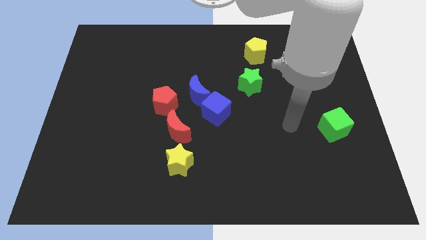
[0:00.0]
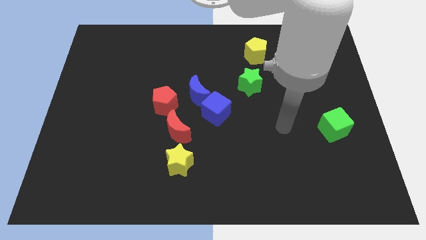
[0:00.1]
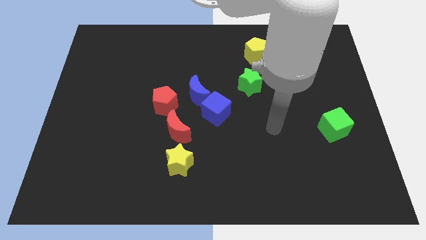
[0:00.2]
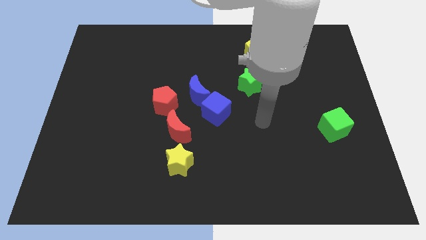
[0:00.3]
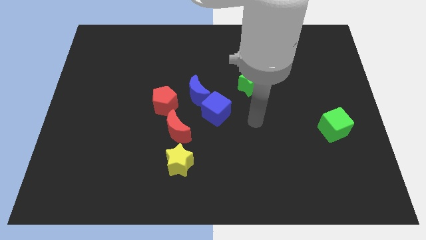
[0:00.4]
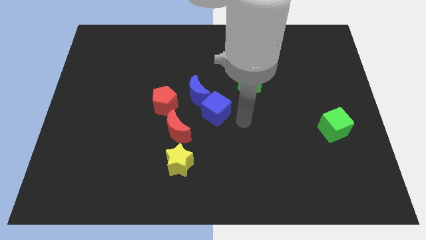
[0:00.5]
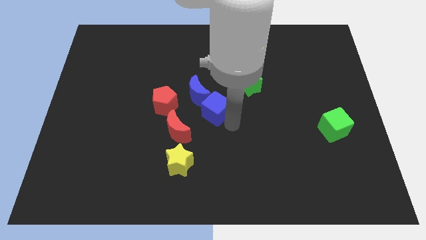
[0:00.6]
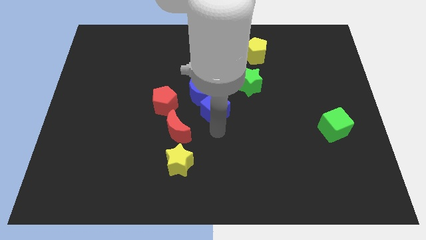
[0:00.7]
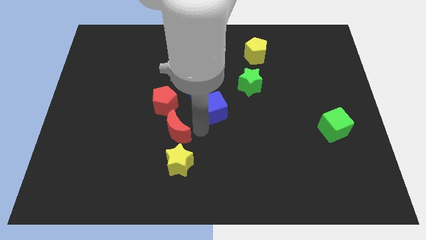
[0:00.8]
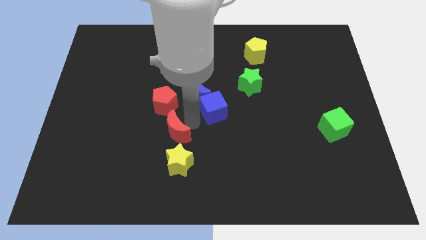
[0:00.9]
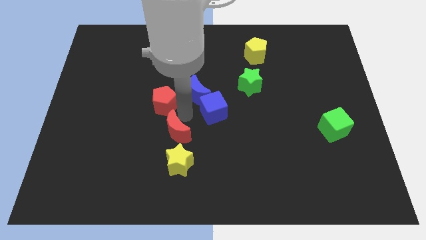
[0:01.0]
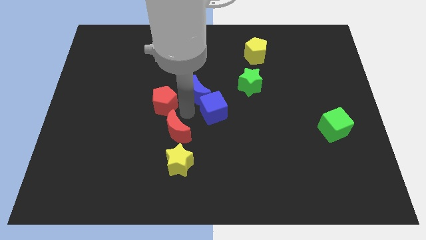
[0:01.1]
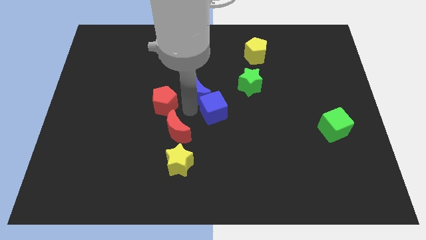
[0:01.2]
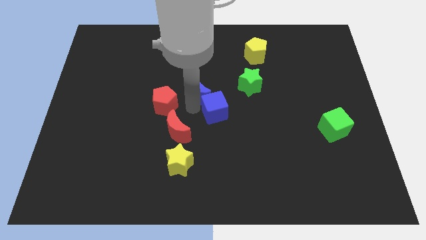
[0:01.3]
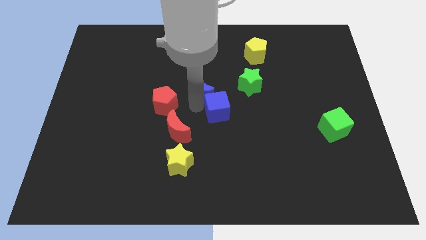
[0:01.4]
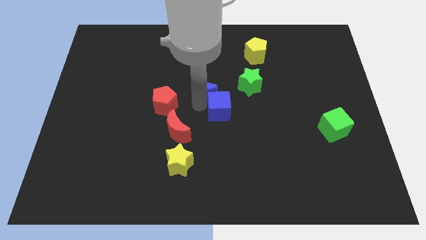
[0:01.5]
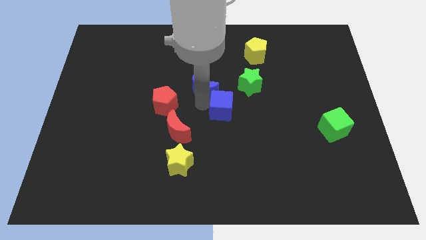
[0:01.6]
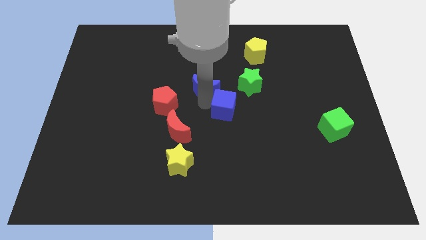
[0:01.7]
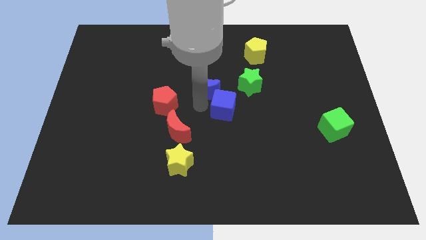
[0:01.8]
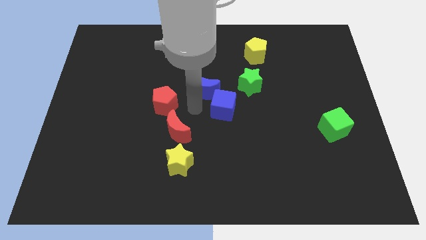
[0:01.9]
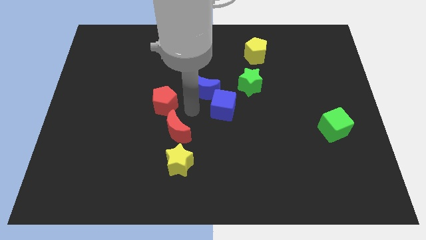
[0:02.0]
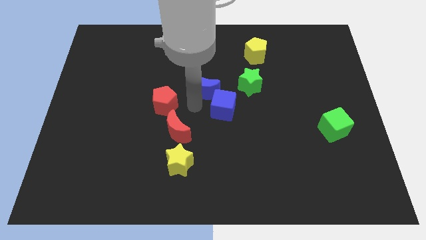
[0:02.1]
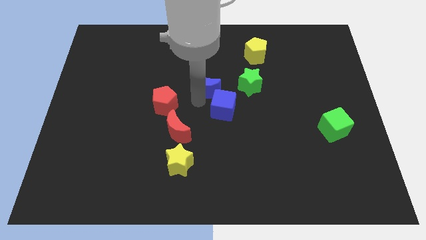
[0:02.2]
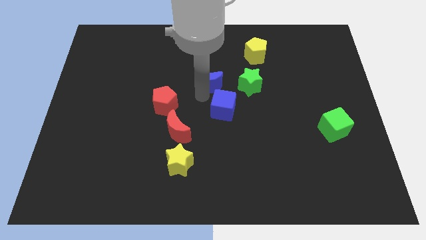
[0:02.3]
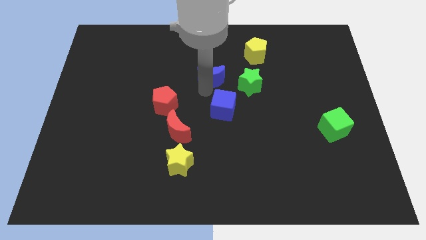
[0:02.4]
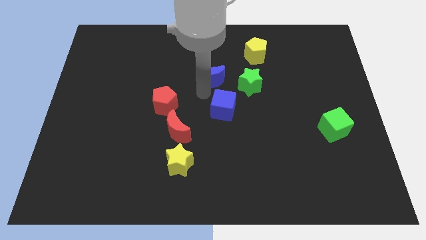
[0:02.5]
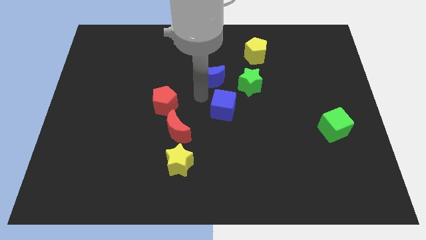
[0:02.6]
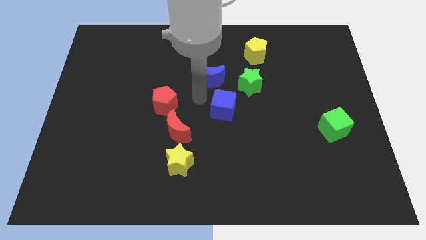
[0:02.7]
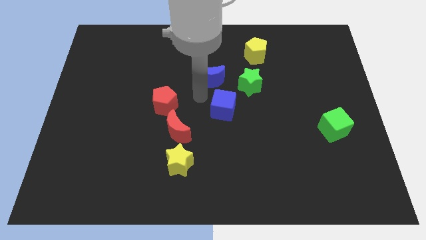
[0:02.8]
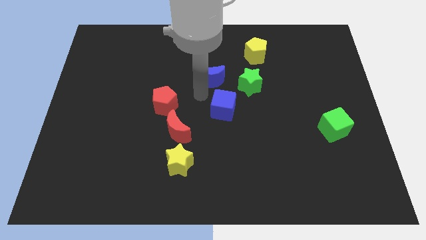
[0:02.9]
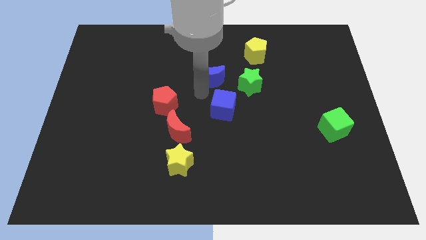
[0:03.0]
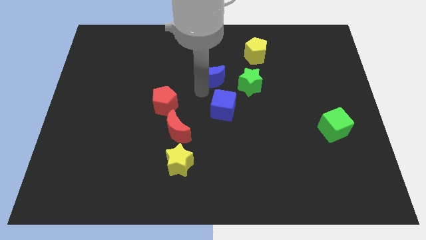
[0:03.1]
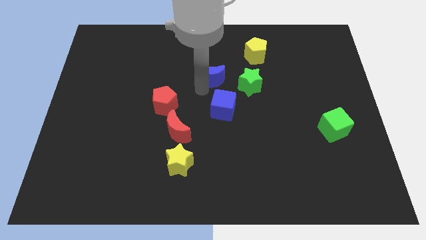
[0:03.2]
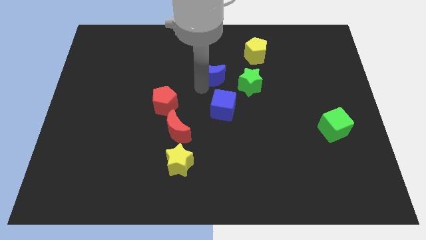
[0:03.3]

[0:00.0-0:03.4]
separate the blue moon from the blue cube and red pentagon

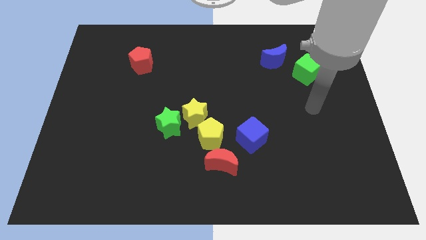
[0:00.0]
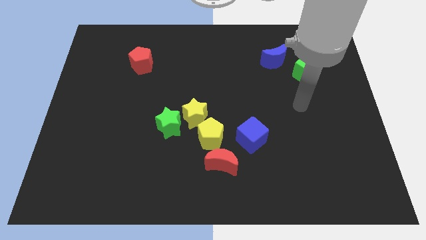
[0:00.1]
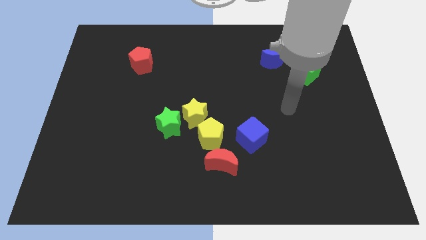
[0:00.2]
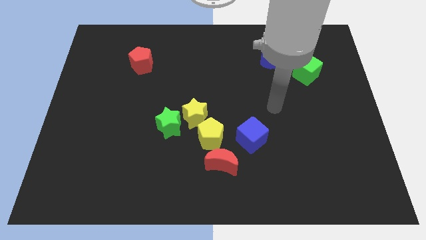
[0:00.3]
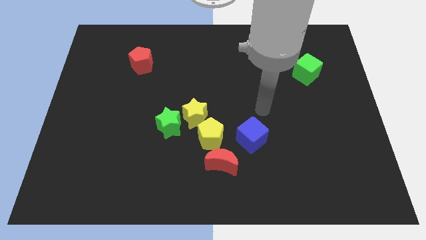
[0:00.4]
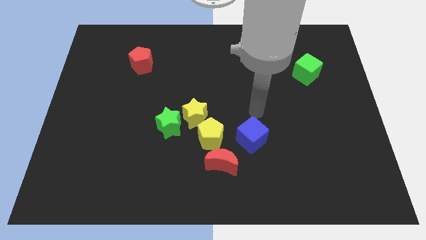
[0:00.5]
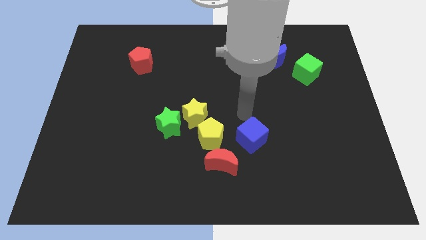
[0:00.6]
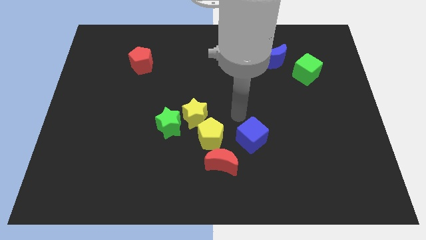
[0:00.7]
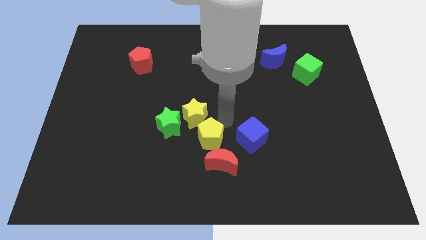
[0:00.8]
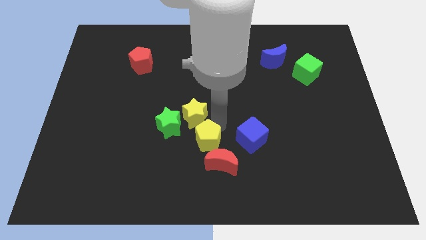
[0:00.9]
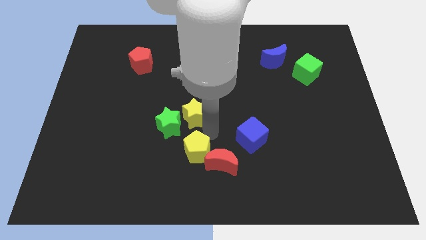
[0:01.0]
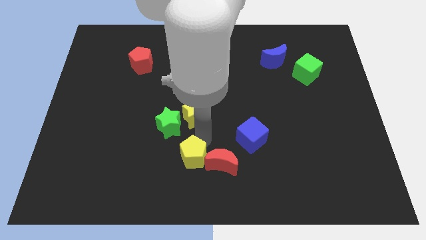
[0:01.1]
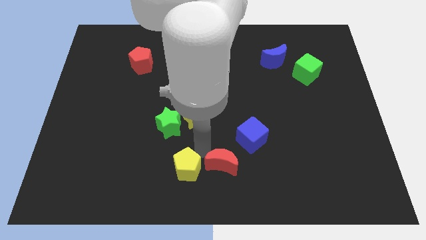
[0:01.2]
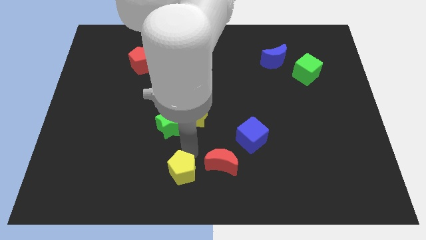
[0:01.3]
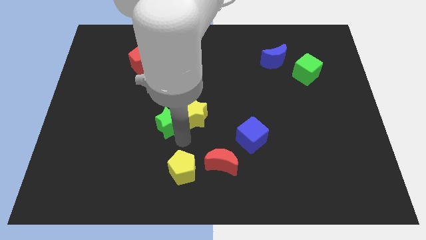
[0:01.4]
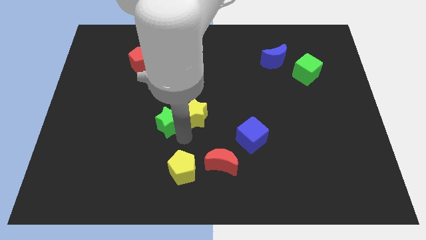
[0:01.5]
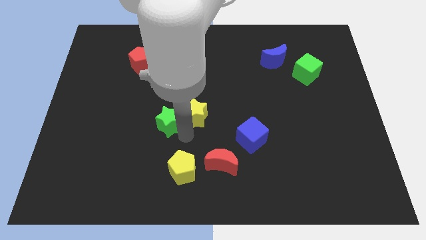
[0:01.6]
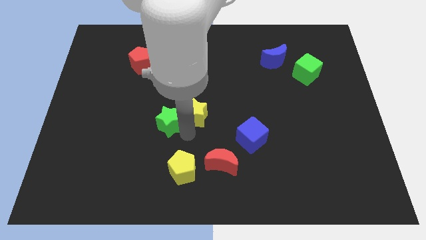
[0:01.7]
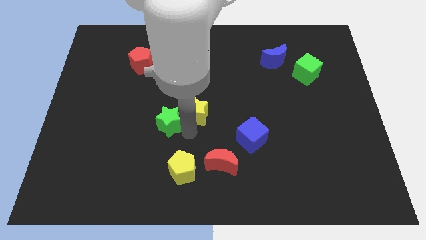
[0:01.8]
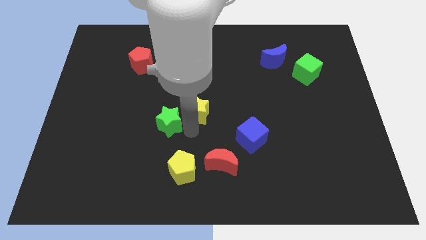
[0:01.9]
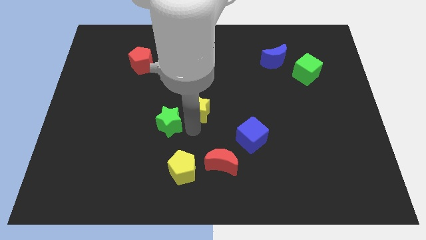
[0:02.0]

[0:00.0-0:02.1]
separate the yellow star from the green star and yellow pentagon

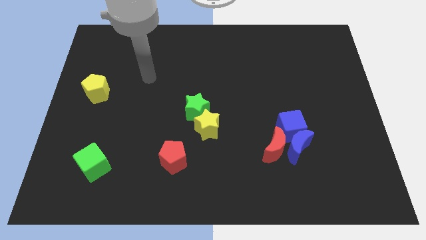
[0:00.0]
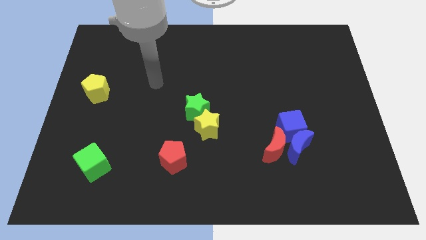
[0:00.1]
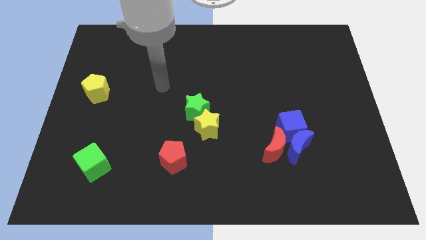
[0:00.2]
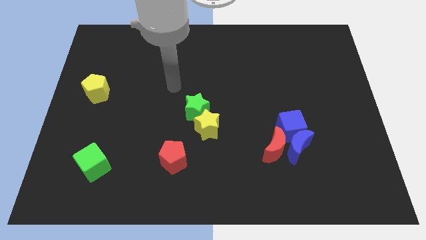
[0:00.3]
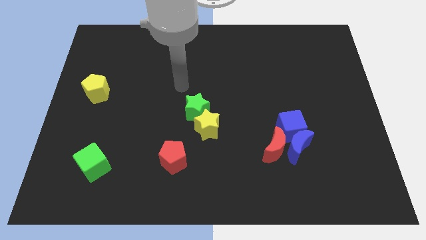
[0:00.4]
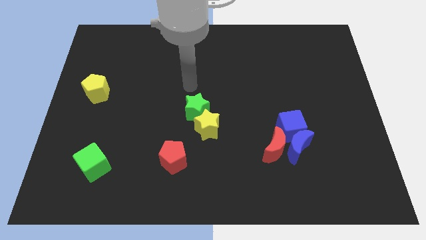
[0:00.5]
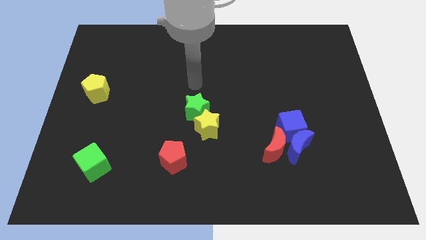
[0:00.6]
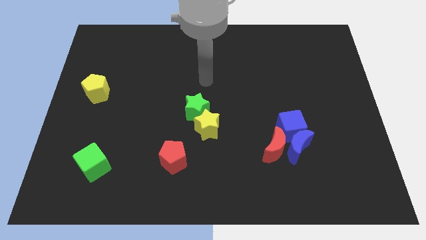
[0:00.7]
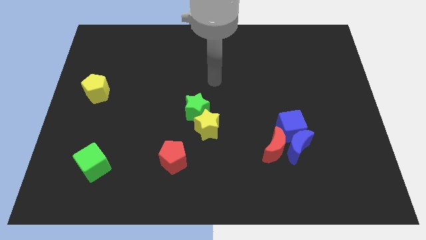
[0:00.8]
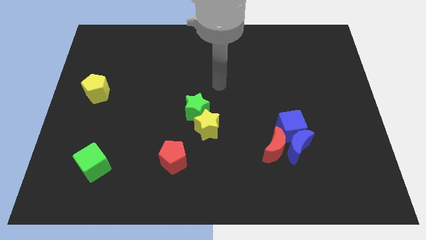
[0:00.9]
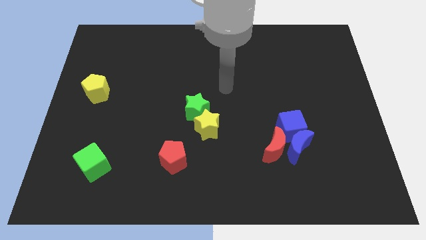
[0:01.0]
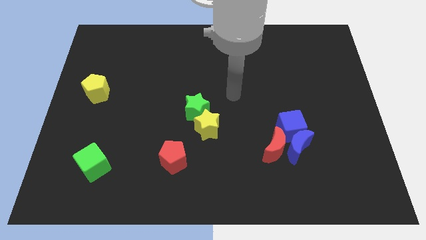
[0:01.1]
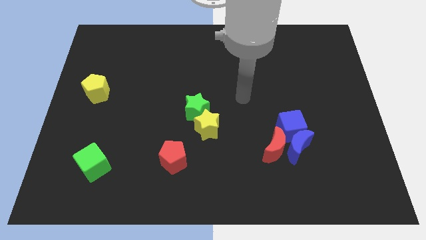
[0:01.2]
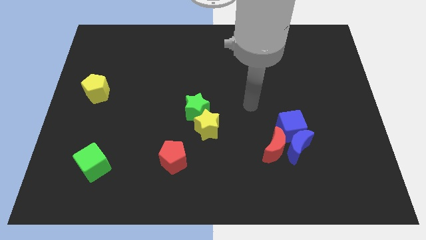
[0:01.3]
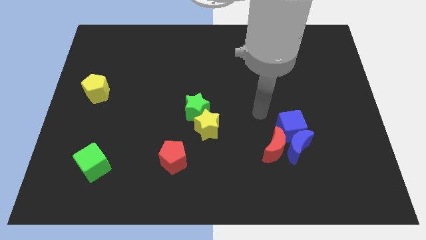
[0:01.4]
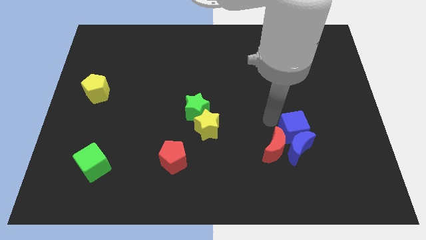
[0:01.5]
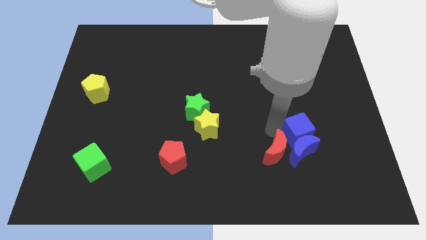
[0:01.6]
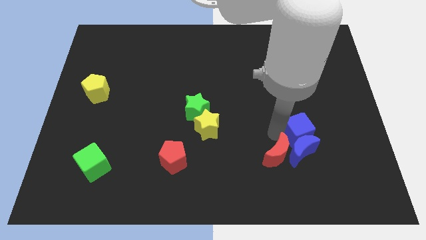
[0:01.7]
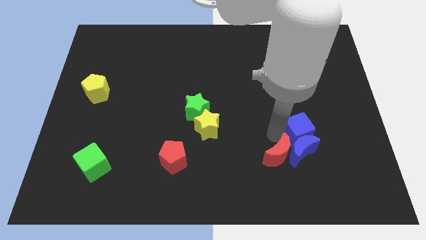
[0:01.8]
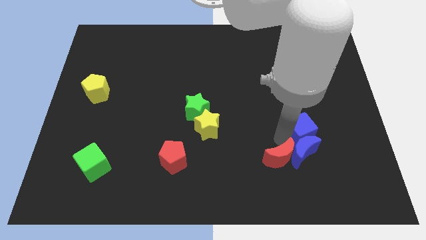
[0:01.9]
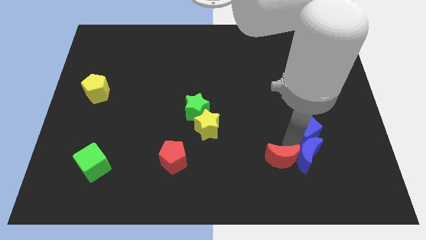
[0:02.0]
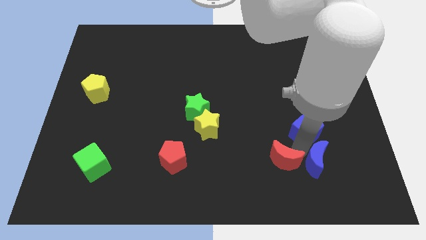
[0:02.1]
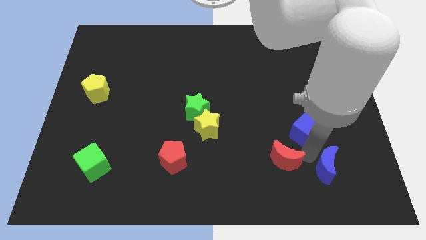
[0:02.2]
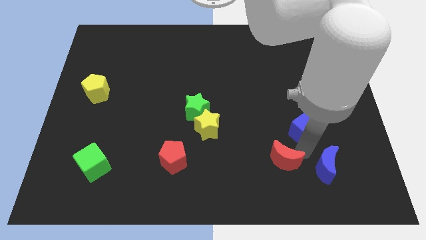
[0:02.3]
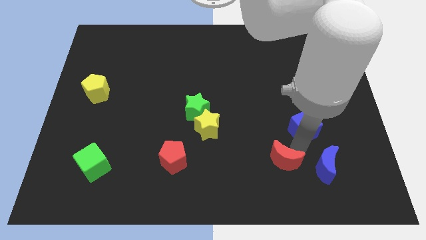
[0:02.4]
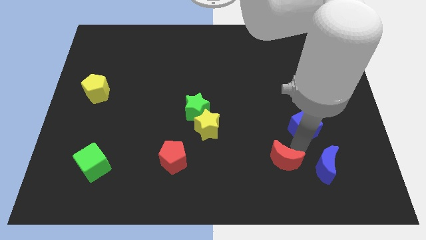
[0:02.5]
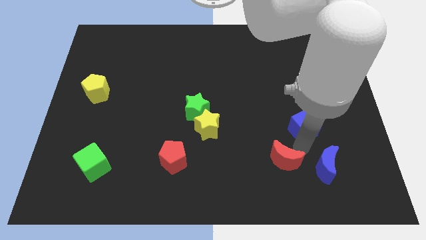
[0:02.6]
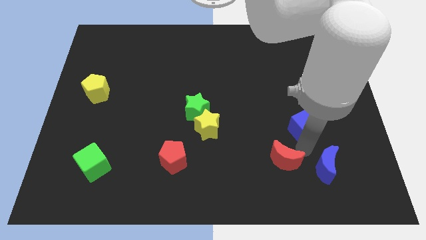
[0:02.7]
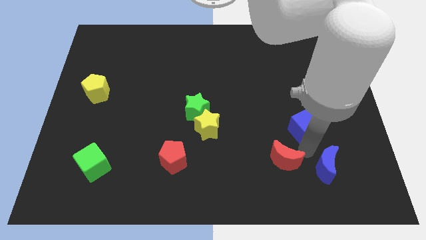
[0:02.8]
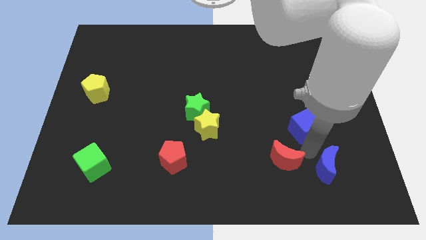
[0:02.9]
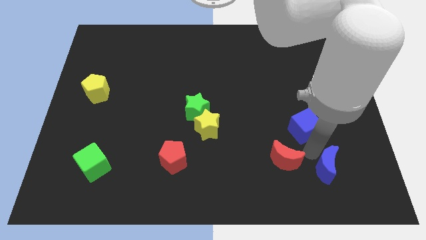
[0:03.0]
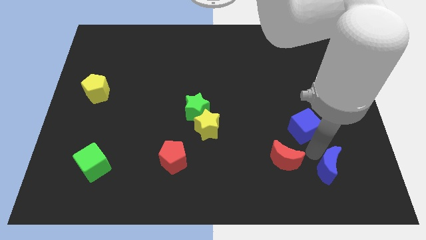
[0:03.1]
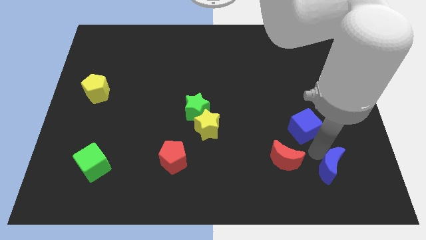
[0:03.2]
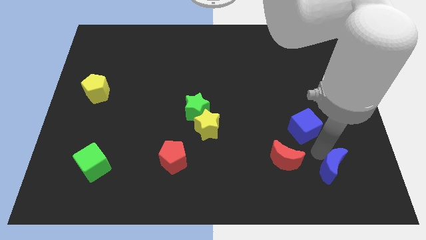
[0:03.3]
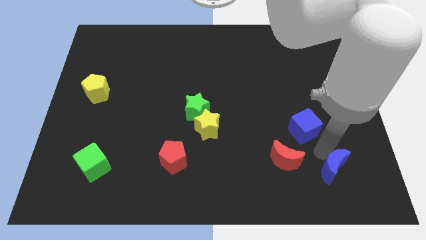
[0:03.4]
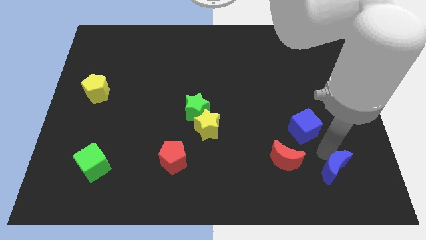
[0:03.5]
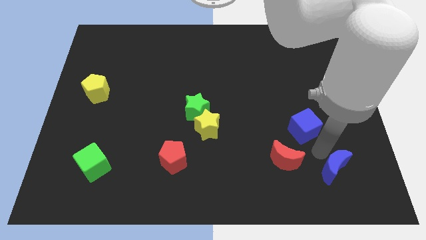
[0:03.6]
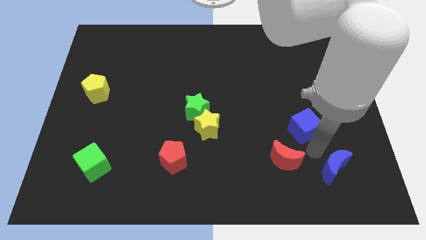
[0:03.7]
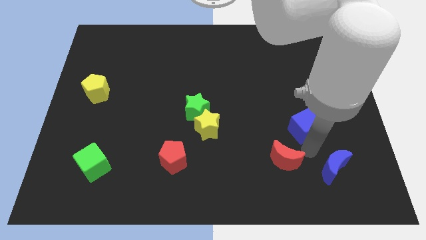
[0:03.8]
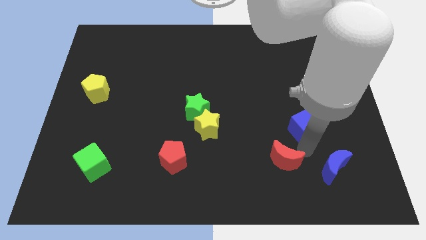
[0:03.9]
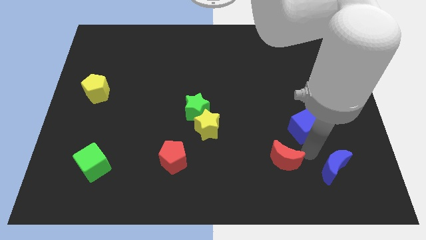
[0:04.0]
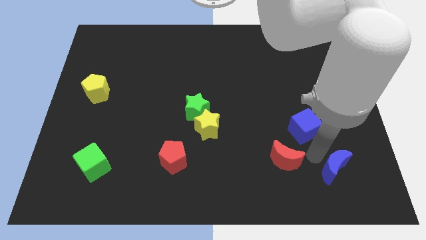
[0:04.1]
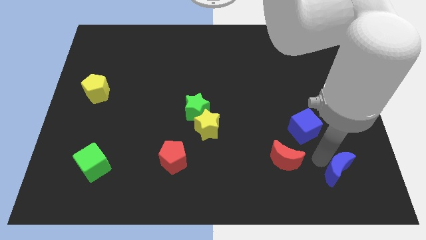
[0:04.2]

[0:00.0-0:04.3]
pull the blue moon apart from the red moon and blue cube
